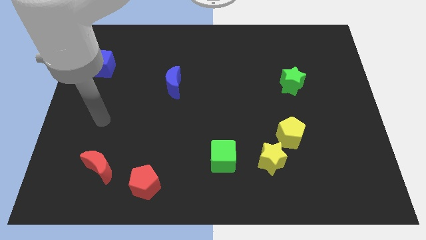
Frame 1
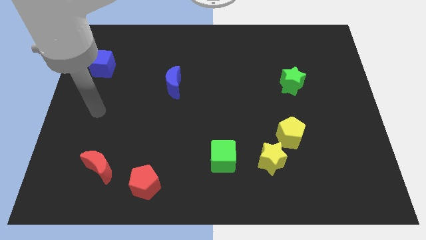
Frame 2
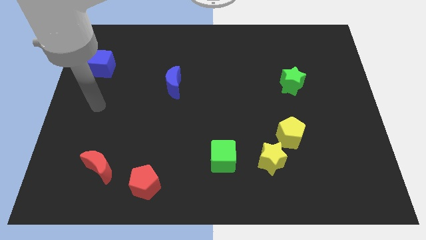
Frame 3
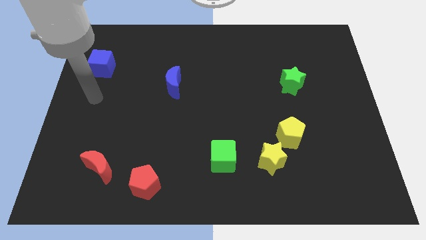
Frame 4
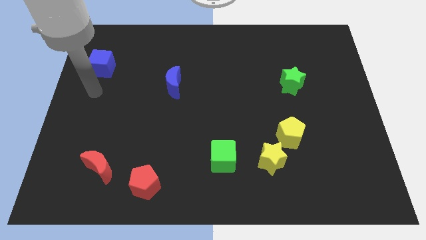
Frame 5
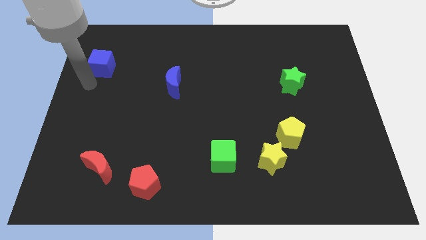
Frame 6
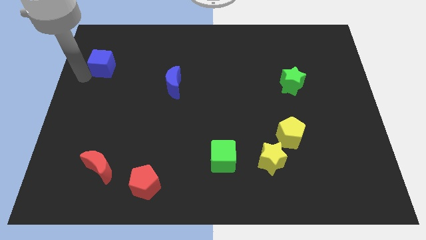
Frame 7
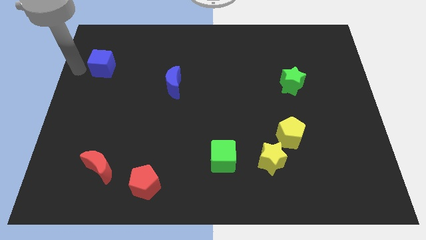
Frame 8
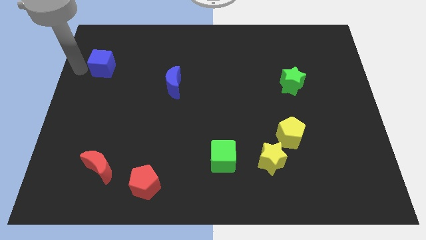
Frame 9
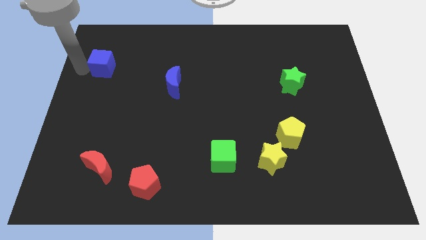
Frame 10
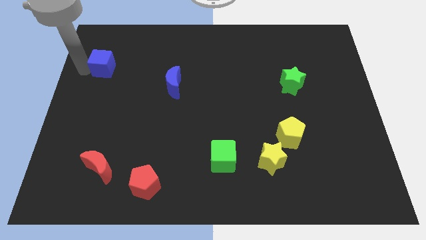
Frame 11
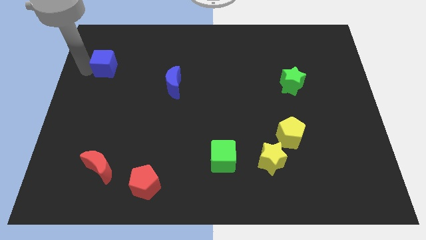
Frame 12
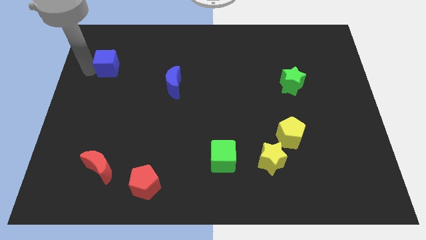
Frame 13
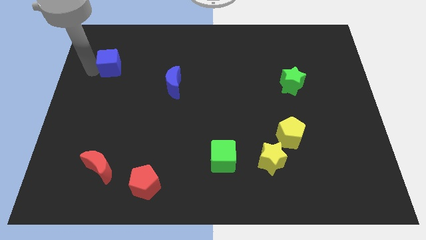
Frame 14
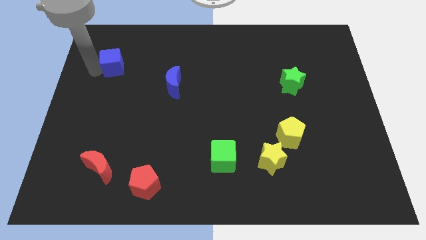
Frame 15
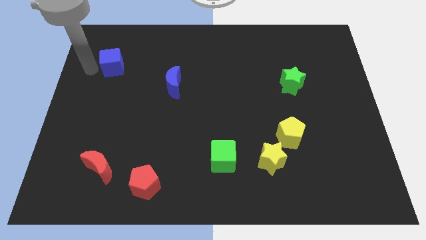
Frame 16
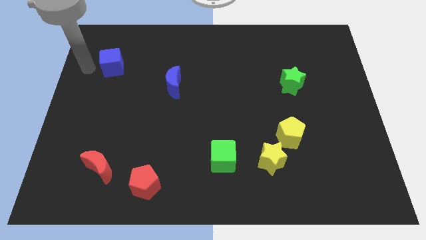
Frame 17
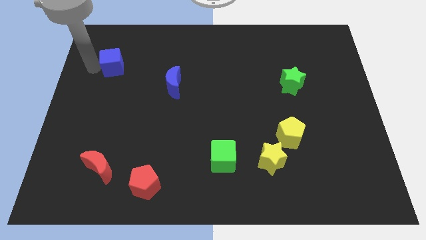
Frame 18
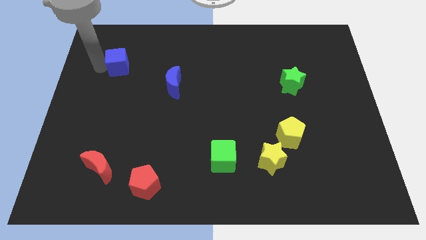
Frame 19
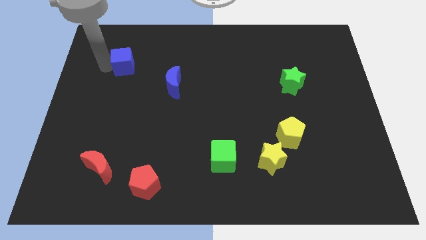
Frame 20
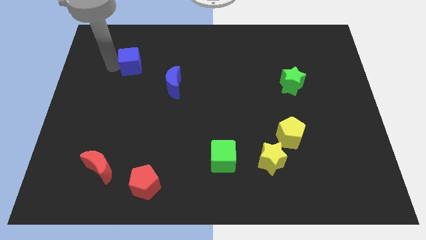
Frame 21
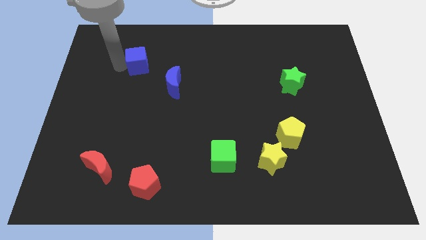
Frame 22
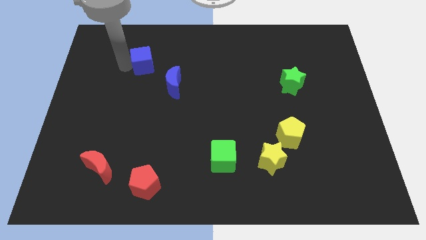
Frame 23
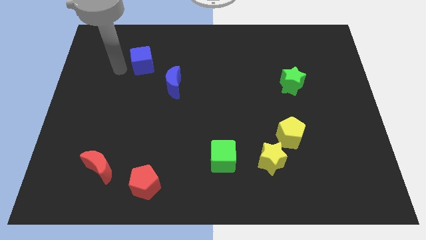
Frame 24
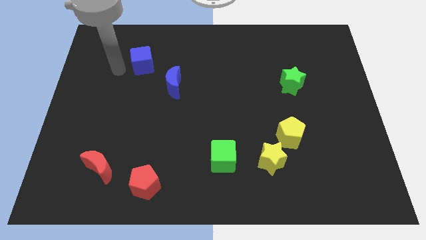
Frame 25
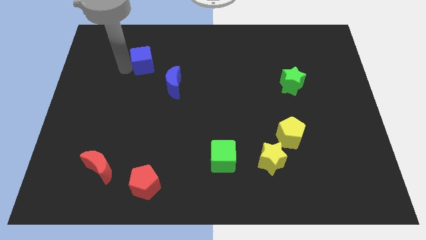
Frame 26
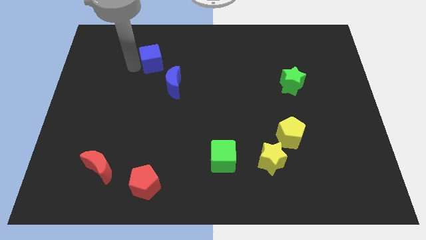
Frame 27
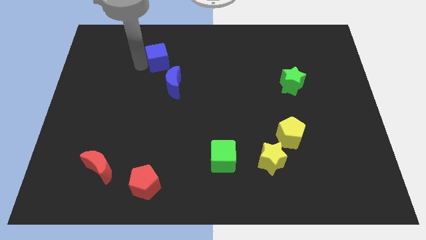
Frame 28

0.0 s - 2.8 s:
push the blue cube above the blue moon

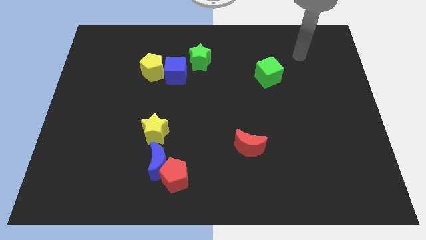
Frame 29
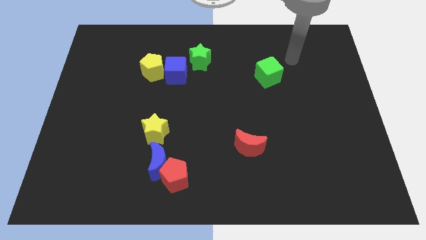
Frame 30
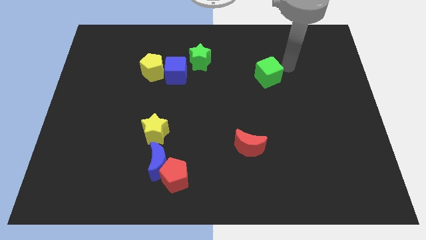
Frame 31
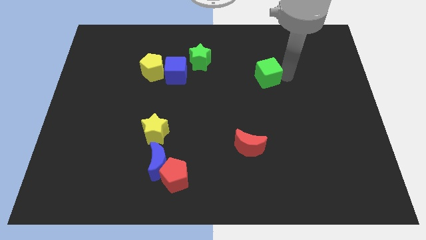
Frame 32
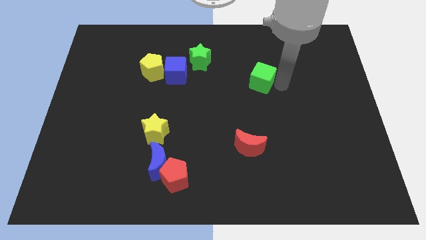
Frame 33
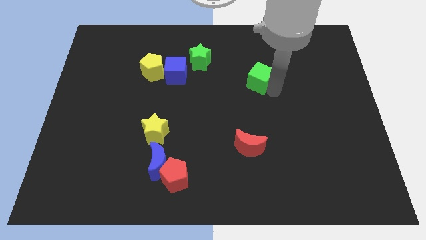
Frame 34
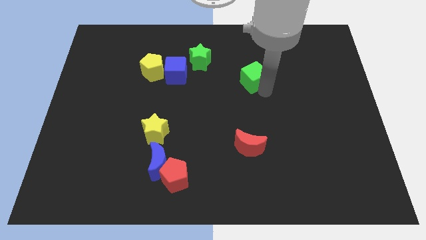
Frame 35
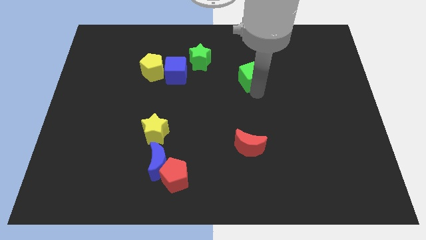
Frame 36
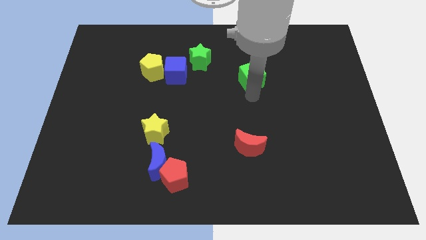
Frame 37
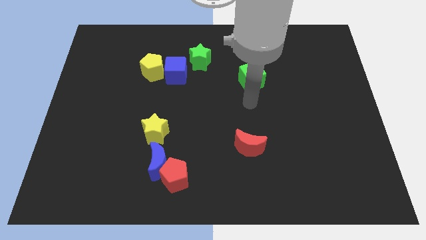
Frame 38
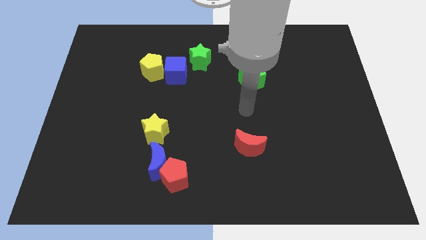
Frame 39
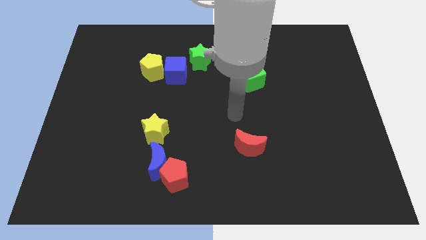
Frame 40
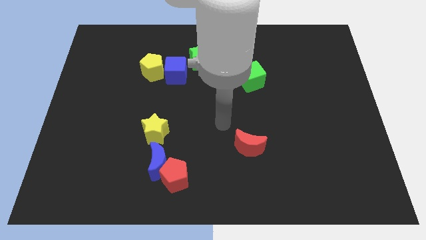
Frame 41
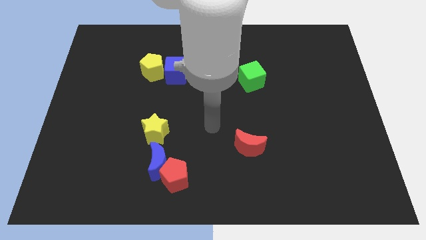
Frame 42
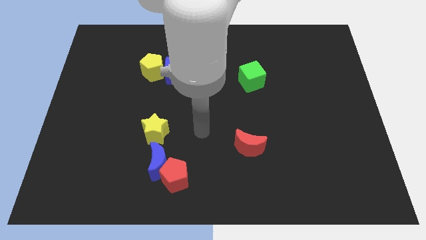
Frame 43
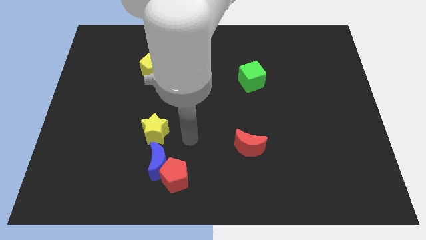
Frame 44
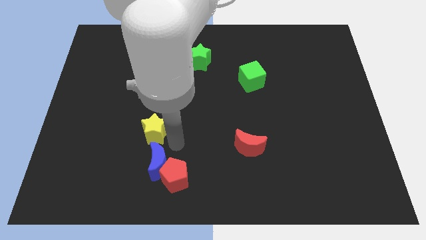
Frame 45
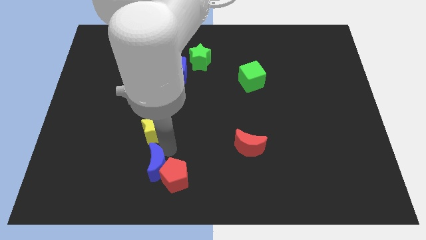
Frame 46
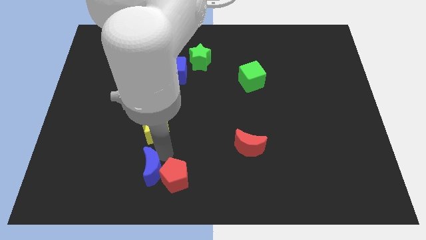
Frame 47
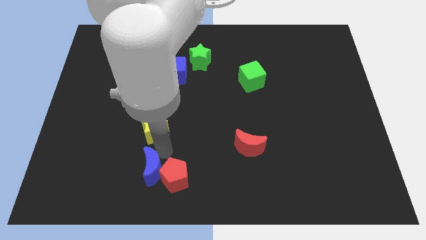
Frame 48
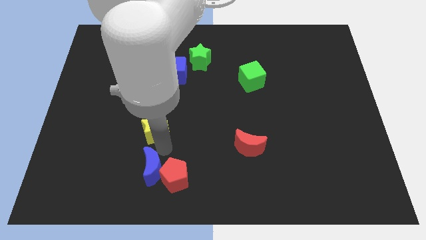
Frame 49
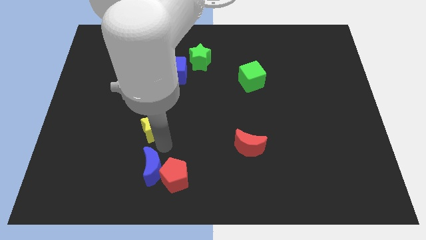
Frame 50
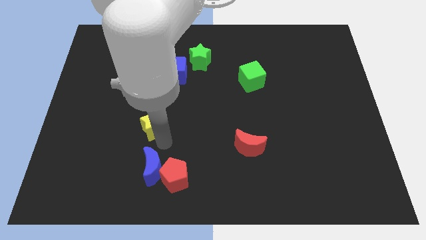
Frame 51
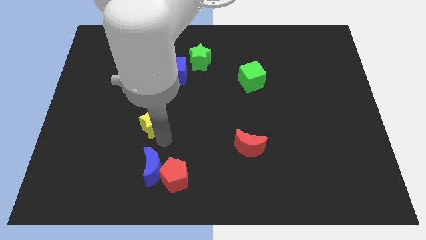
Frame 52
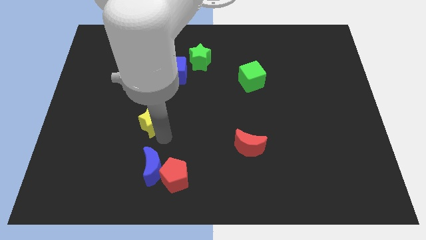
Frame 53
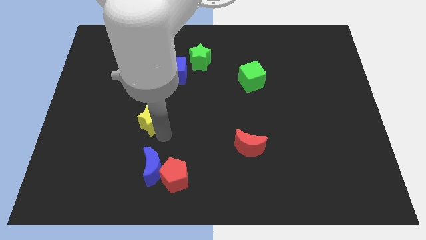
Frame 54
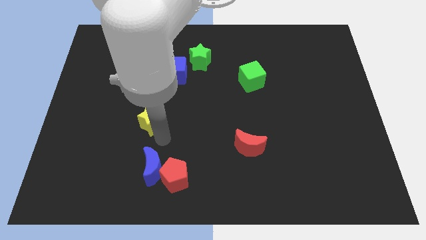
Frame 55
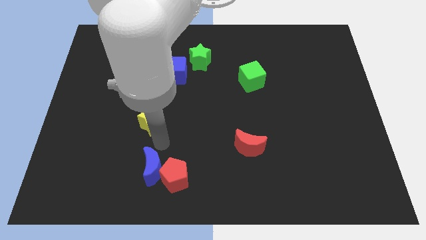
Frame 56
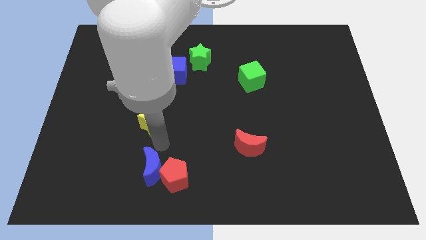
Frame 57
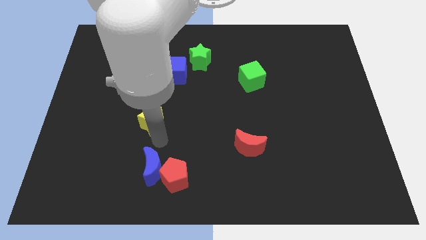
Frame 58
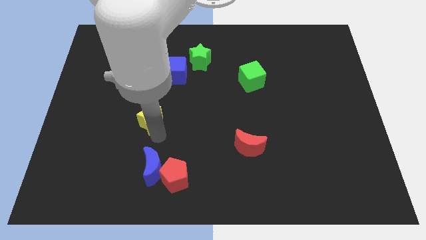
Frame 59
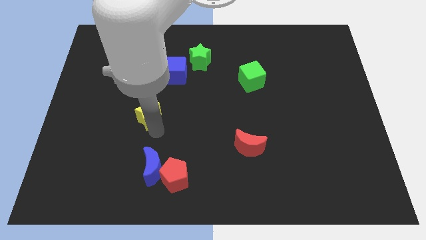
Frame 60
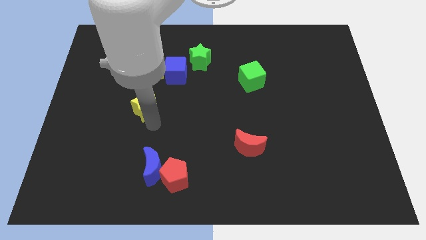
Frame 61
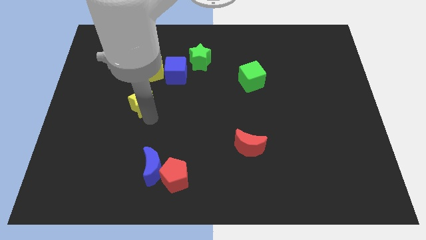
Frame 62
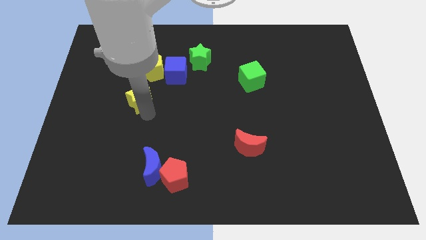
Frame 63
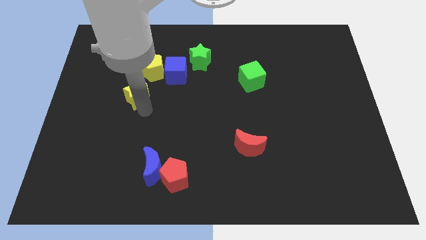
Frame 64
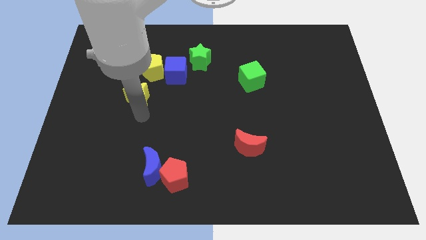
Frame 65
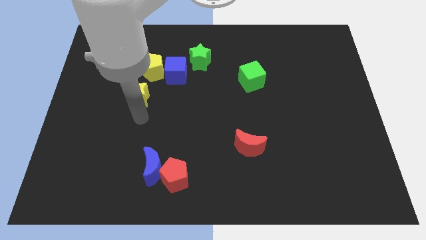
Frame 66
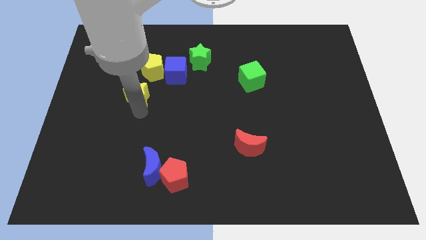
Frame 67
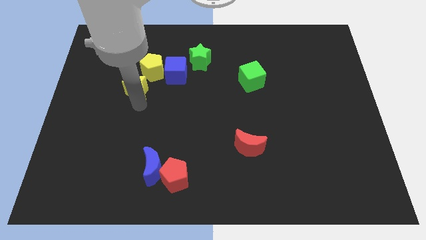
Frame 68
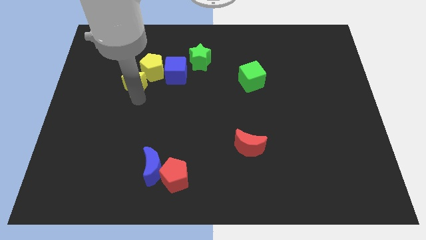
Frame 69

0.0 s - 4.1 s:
push the yellow star to the left of the blue cube

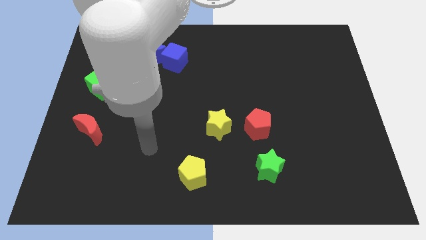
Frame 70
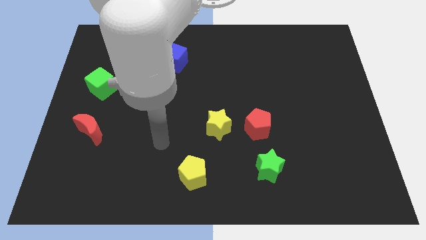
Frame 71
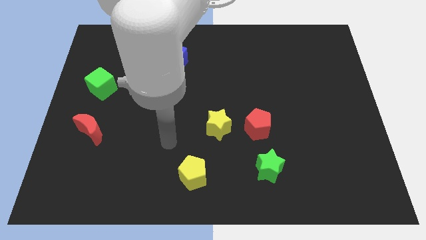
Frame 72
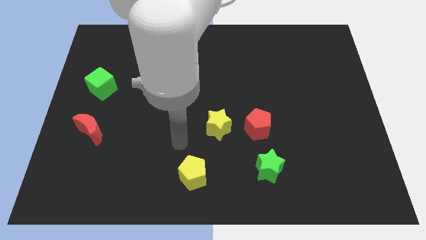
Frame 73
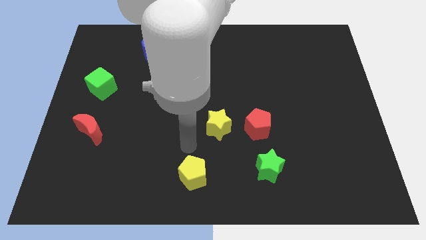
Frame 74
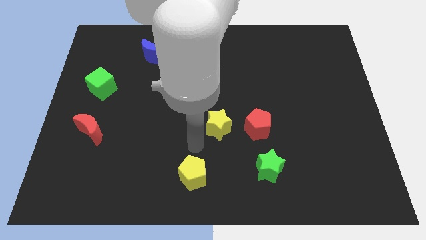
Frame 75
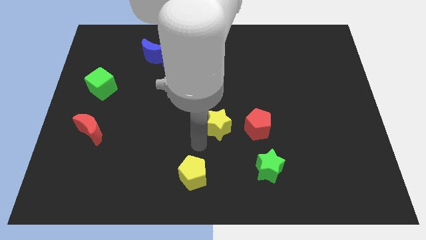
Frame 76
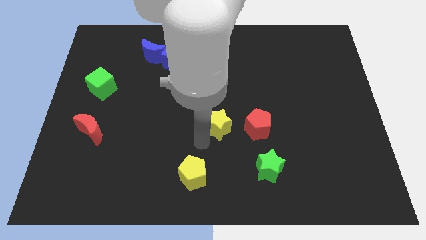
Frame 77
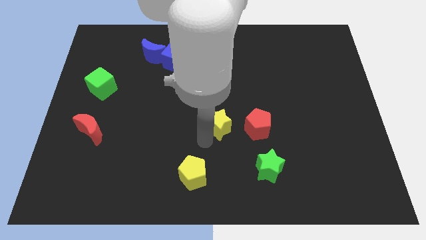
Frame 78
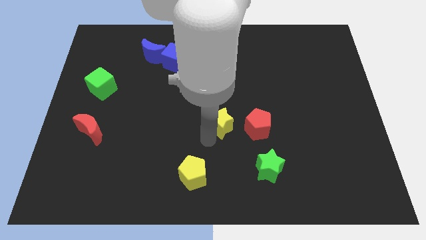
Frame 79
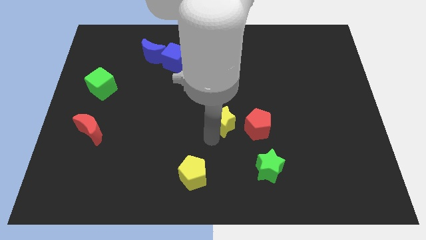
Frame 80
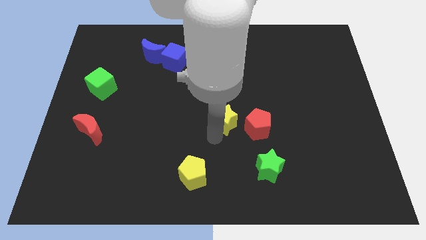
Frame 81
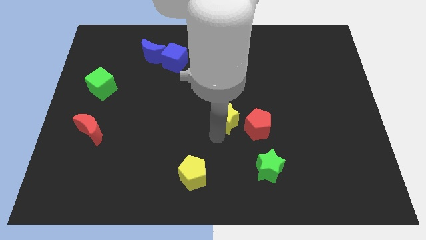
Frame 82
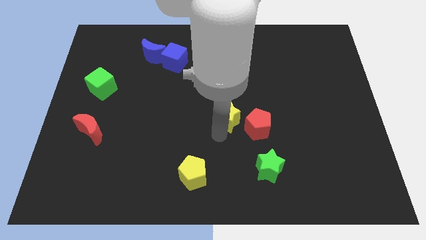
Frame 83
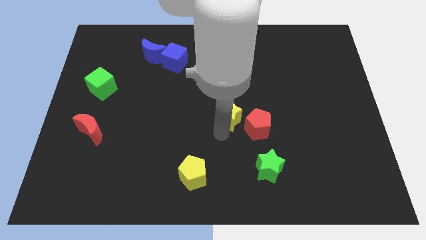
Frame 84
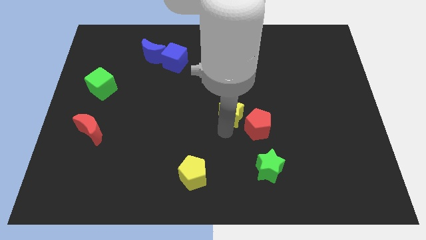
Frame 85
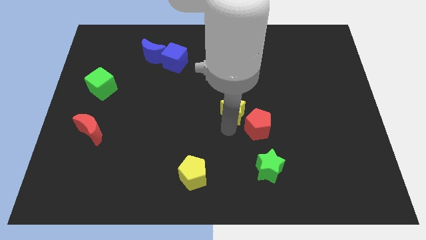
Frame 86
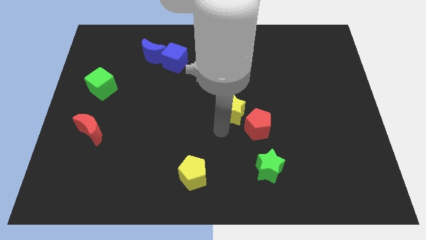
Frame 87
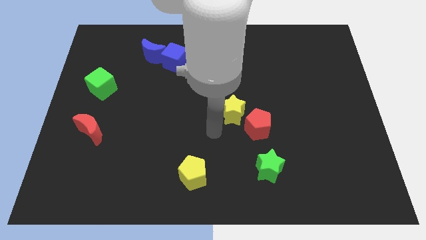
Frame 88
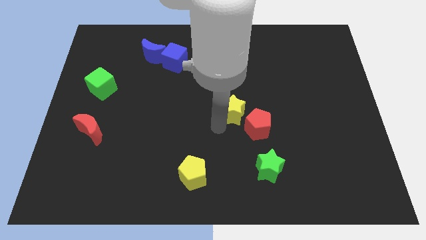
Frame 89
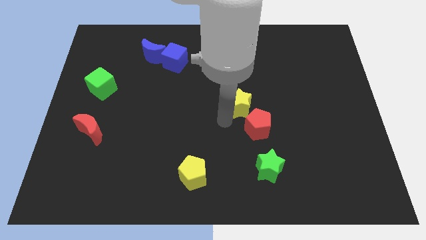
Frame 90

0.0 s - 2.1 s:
move the yellow star to the top of the red pentagon
